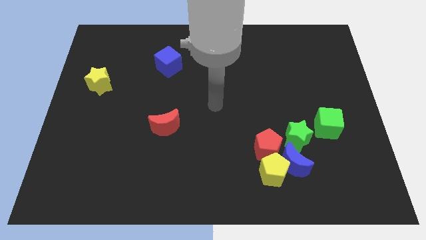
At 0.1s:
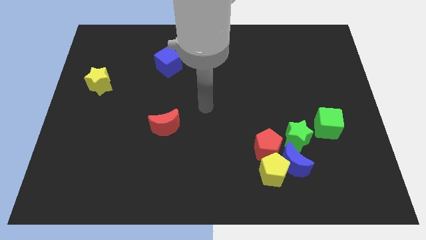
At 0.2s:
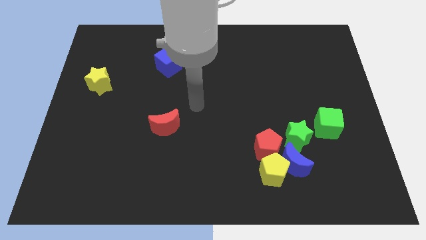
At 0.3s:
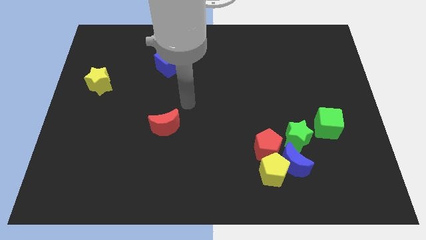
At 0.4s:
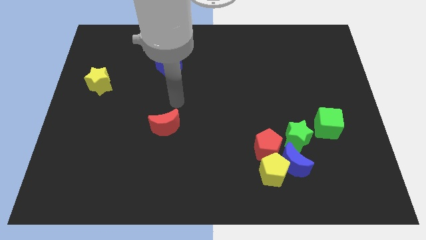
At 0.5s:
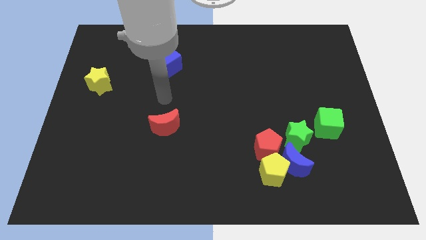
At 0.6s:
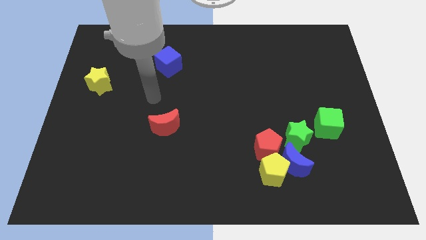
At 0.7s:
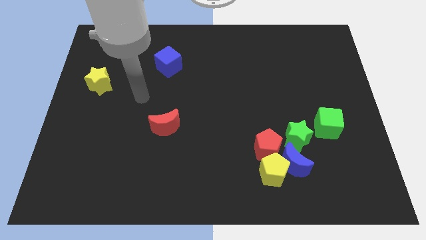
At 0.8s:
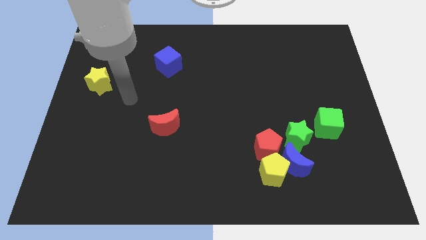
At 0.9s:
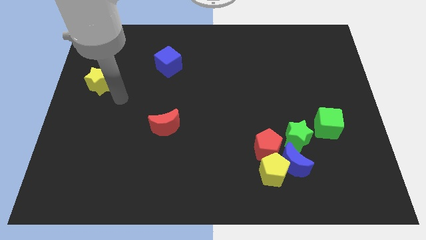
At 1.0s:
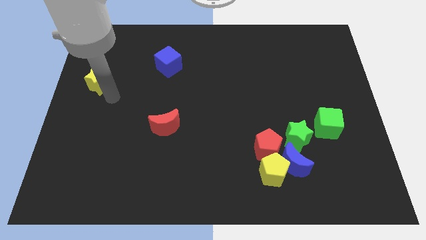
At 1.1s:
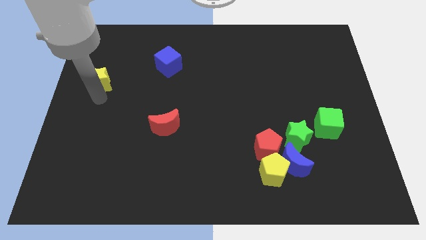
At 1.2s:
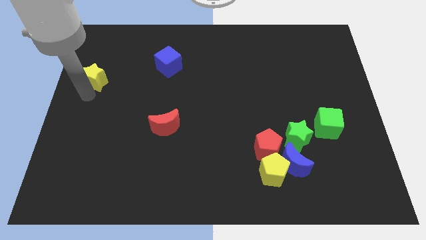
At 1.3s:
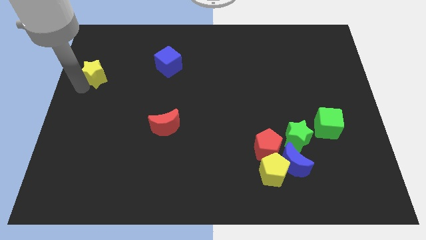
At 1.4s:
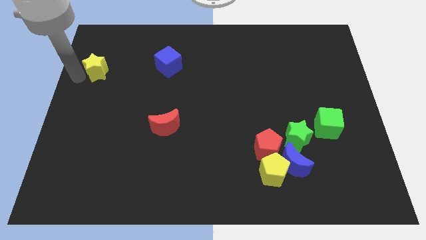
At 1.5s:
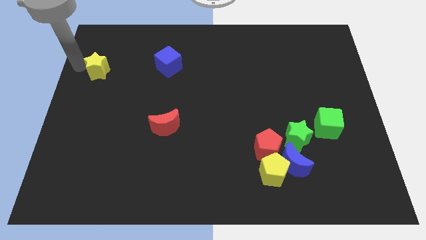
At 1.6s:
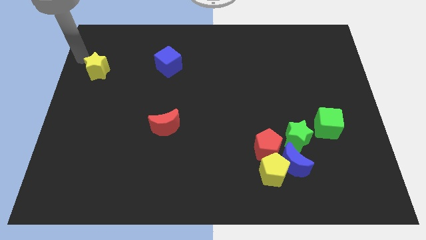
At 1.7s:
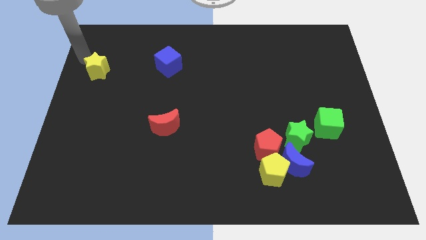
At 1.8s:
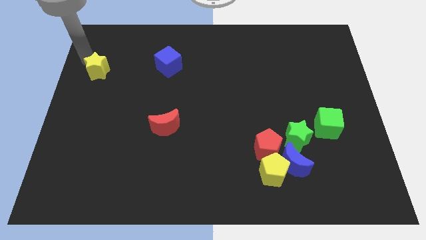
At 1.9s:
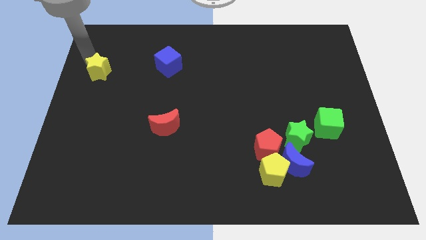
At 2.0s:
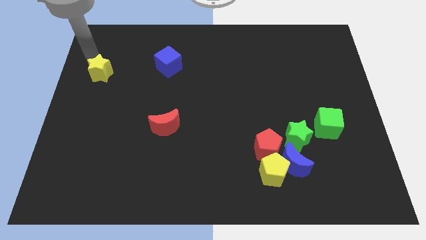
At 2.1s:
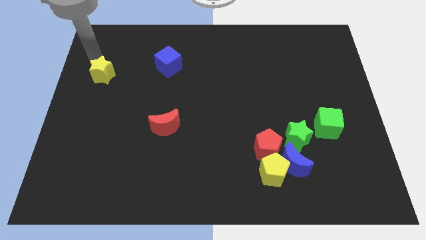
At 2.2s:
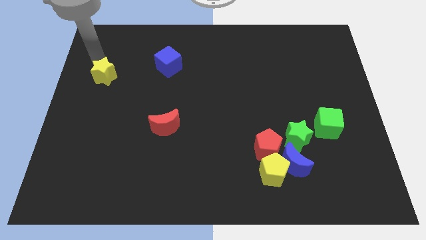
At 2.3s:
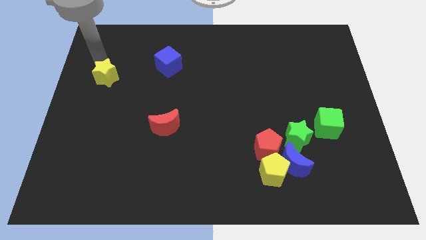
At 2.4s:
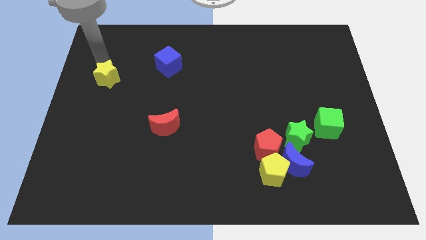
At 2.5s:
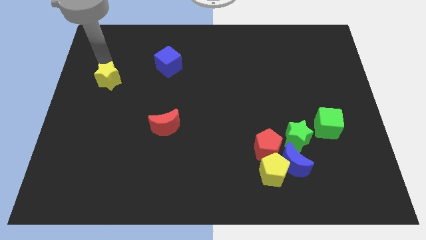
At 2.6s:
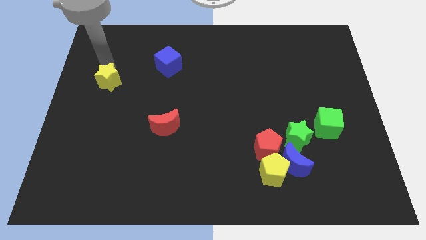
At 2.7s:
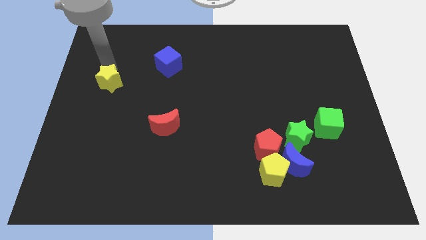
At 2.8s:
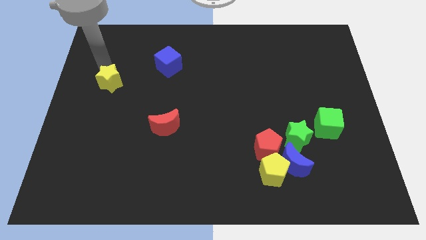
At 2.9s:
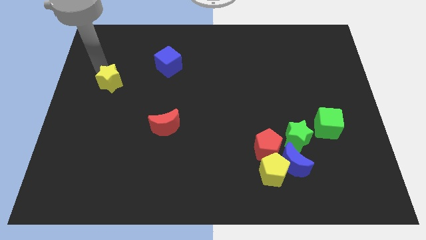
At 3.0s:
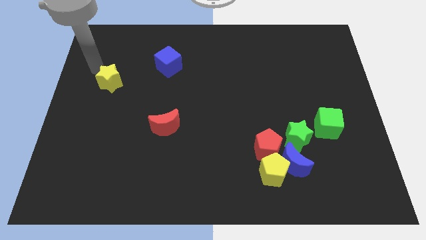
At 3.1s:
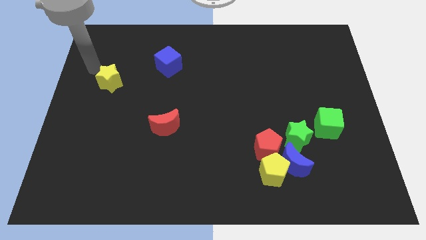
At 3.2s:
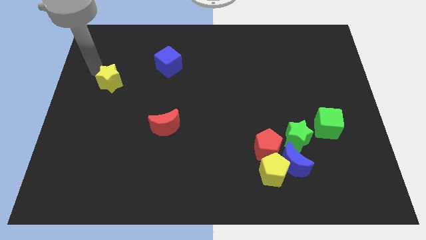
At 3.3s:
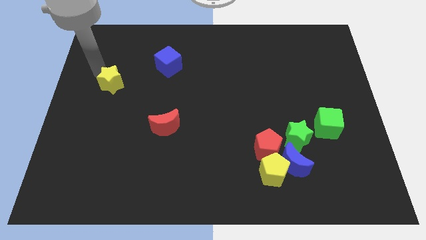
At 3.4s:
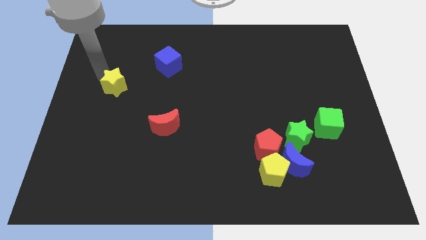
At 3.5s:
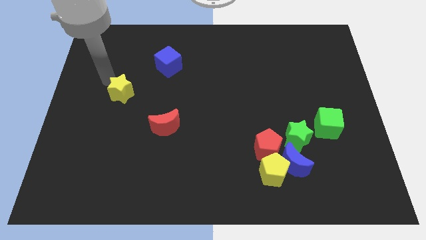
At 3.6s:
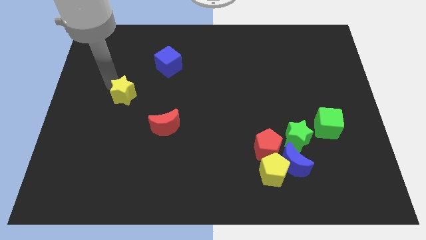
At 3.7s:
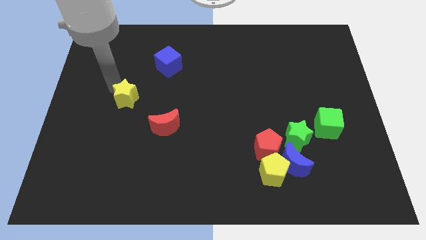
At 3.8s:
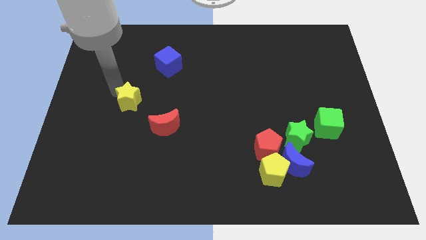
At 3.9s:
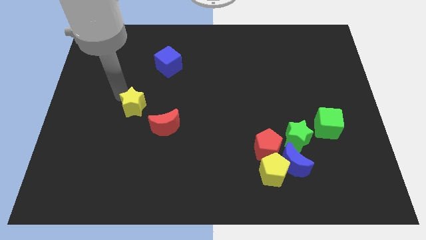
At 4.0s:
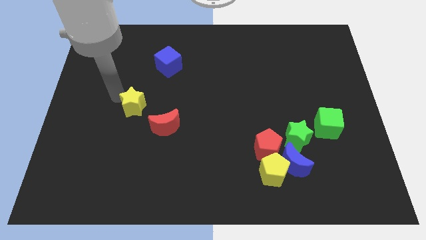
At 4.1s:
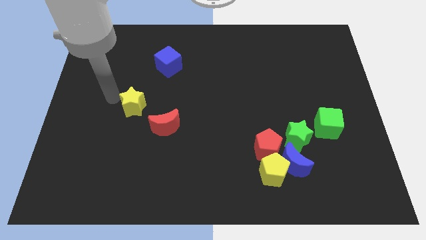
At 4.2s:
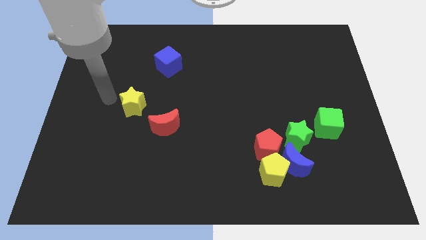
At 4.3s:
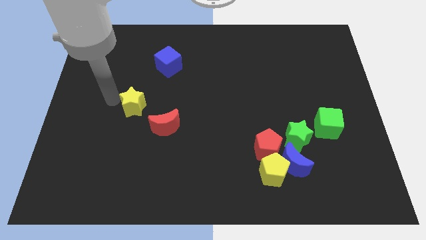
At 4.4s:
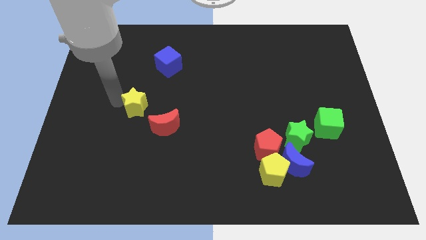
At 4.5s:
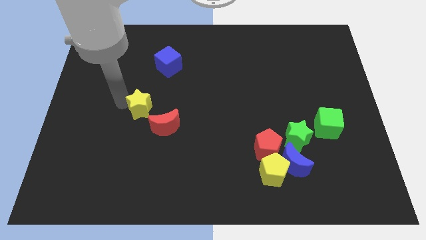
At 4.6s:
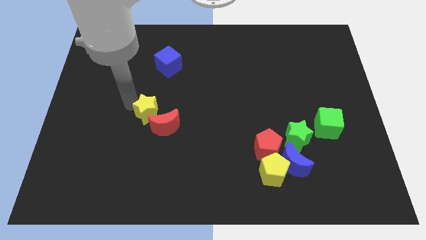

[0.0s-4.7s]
put the yellow star next to the red moon

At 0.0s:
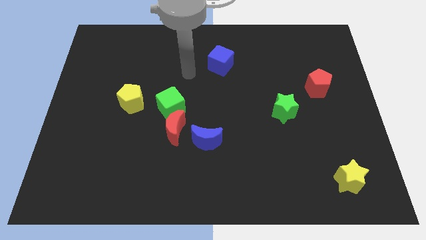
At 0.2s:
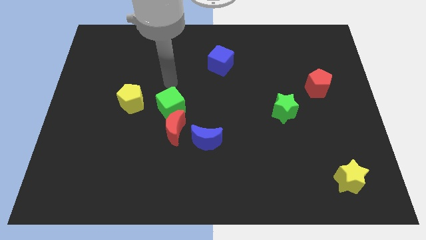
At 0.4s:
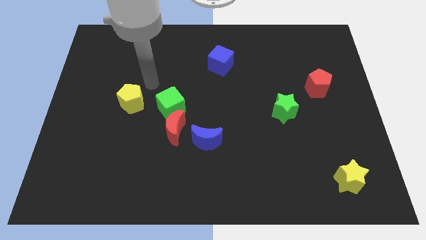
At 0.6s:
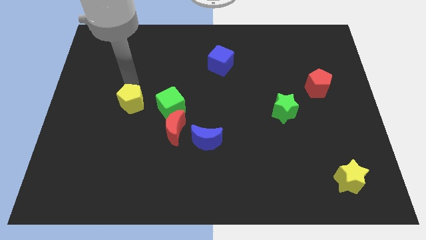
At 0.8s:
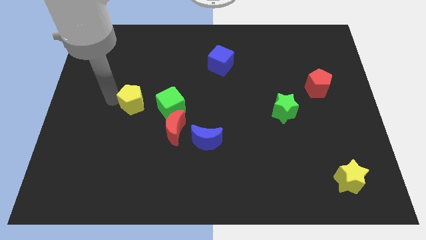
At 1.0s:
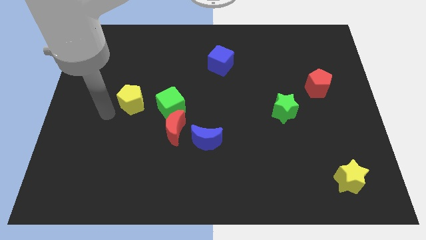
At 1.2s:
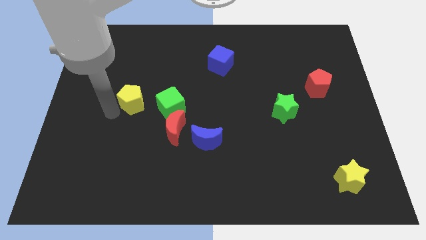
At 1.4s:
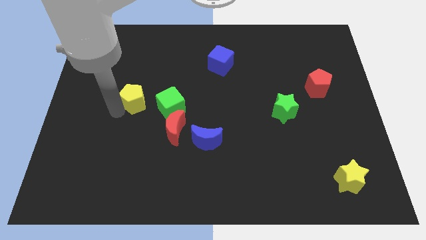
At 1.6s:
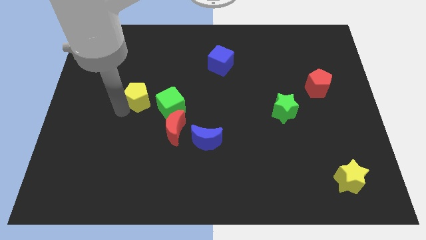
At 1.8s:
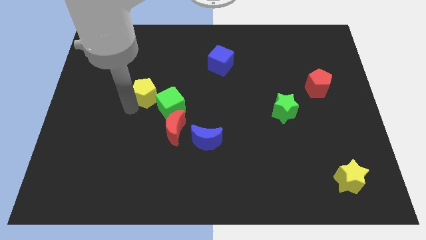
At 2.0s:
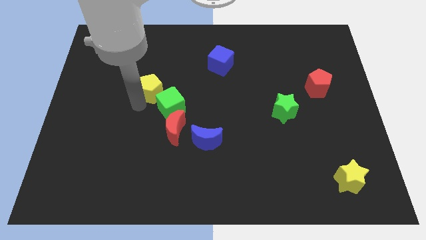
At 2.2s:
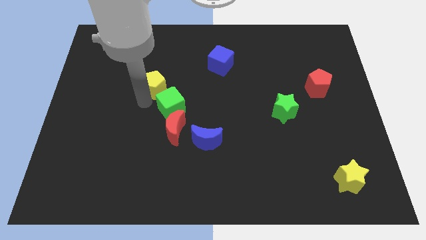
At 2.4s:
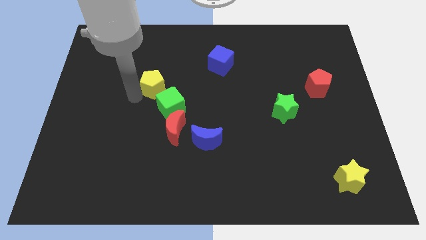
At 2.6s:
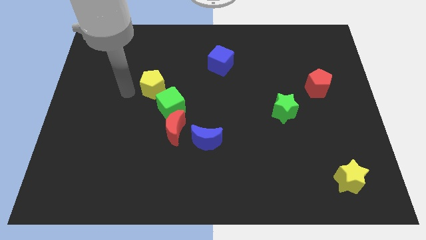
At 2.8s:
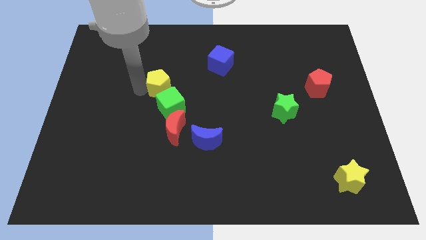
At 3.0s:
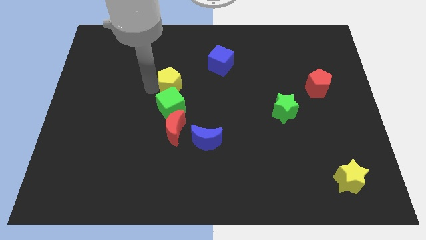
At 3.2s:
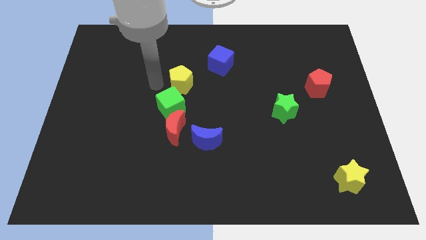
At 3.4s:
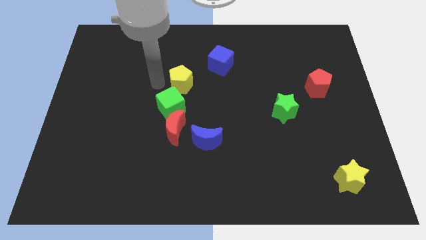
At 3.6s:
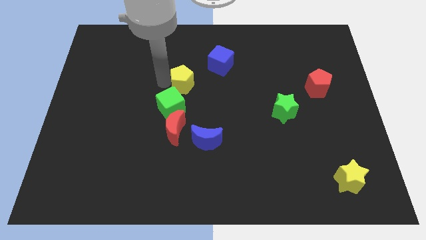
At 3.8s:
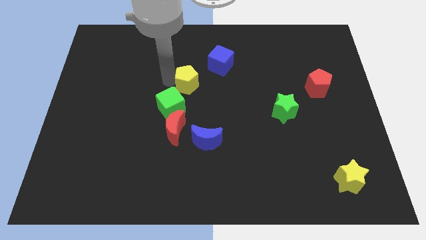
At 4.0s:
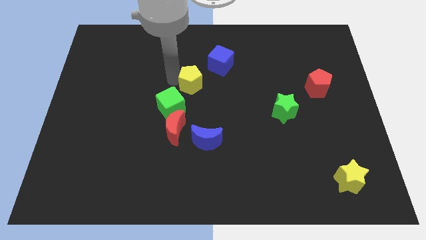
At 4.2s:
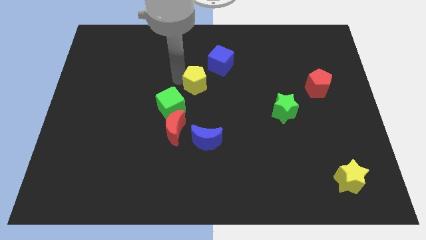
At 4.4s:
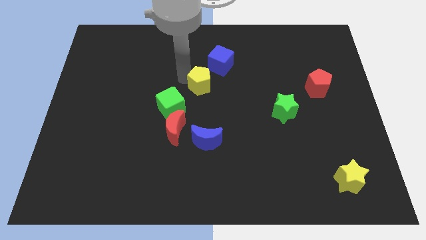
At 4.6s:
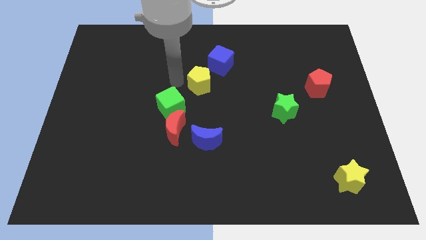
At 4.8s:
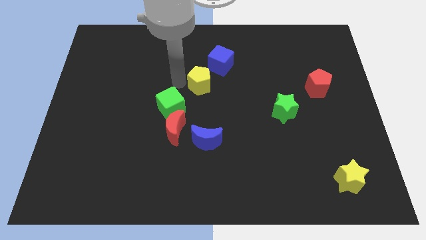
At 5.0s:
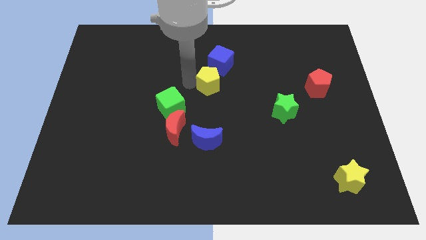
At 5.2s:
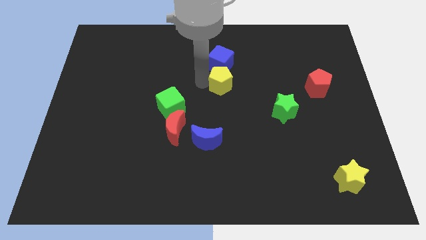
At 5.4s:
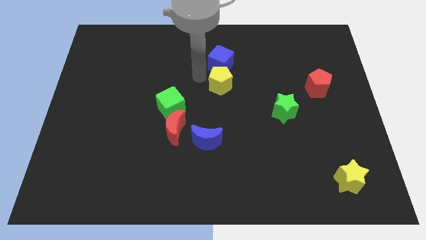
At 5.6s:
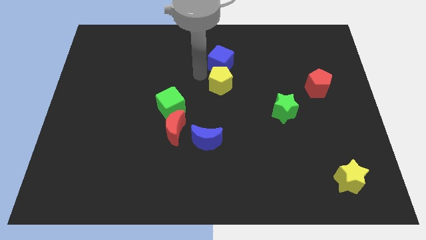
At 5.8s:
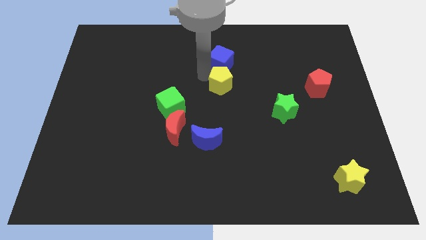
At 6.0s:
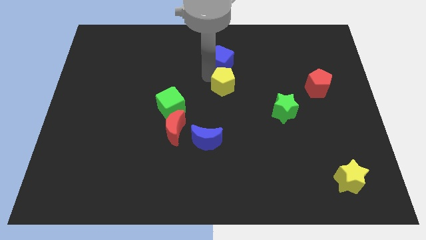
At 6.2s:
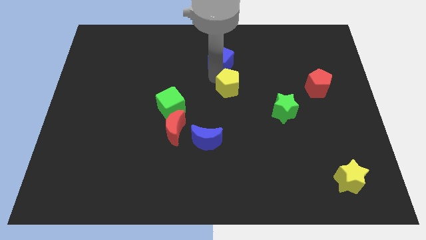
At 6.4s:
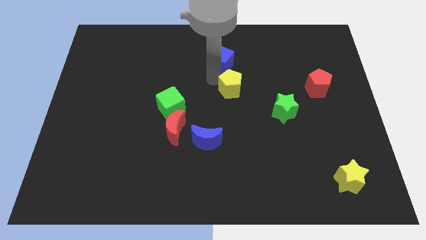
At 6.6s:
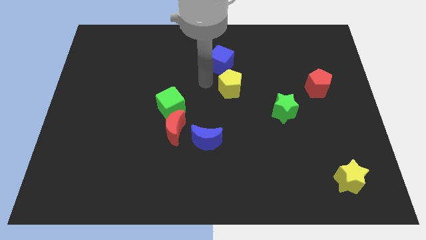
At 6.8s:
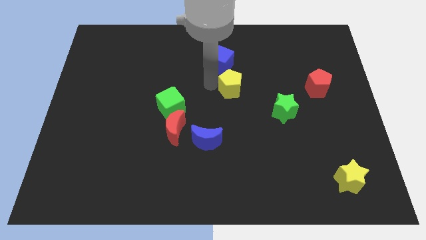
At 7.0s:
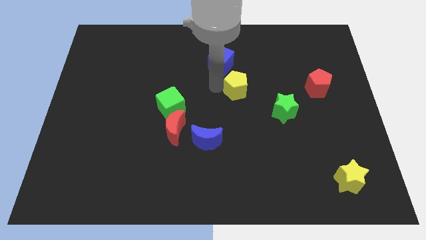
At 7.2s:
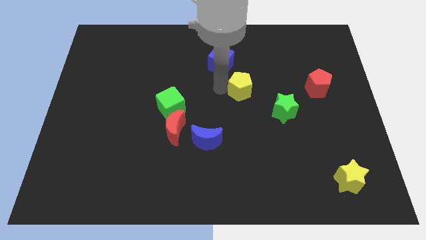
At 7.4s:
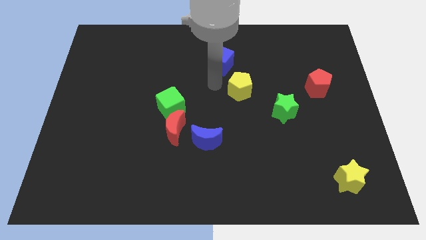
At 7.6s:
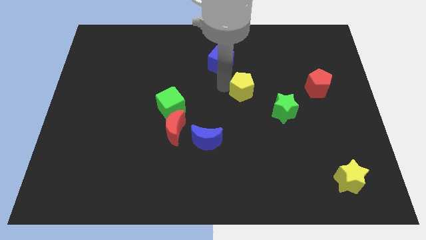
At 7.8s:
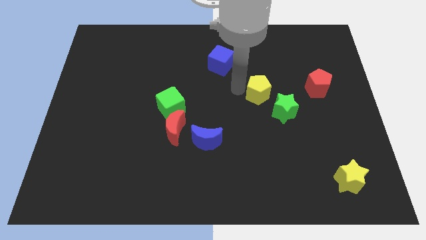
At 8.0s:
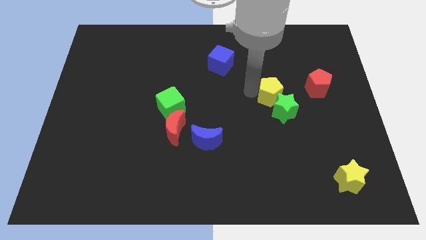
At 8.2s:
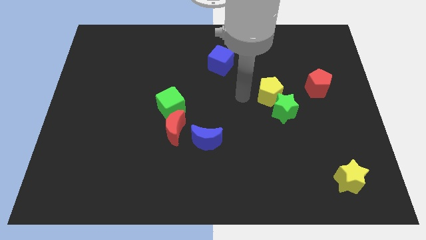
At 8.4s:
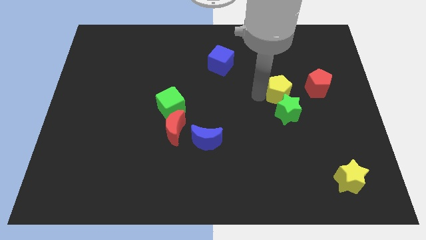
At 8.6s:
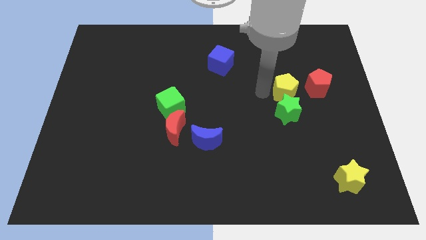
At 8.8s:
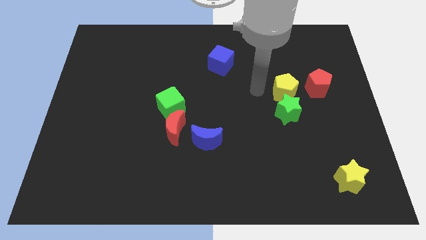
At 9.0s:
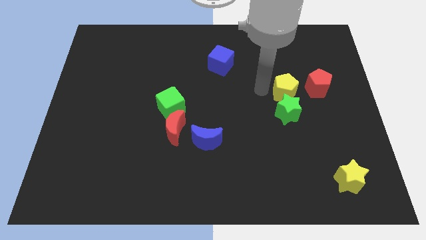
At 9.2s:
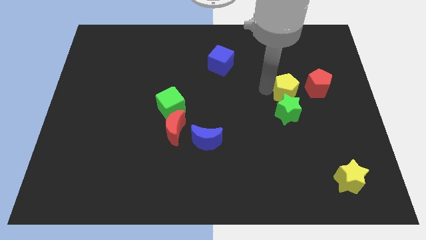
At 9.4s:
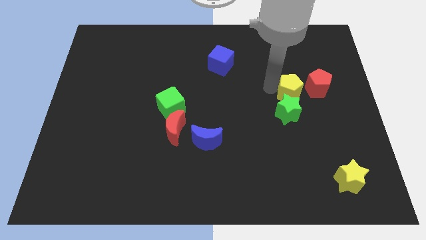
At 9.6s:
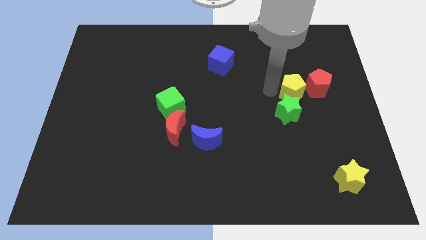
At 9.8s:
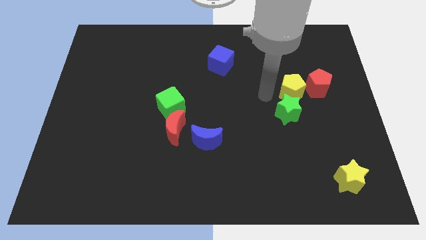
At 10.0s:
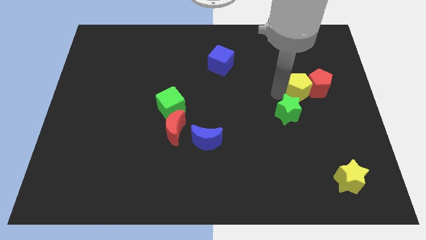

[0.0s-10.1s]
put the yellow pentagon towards the red pentagon
